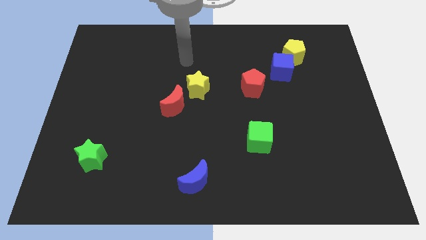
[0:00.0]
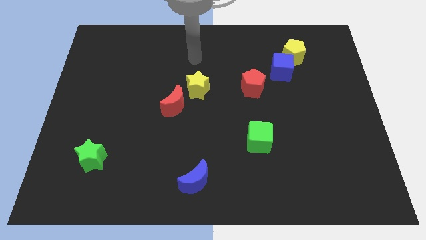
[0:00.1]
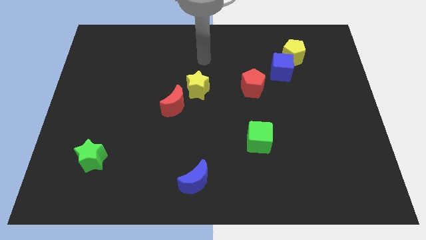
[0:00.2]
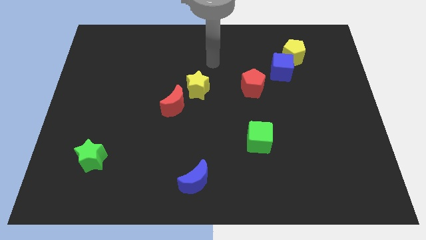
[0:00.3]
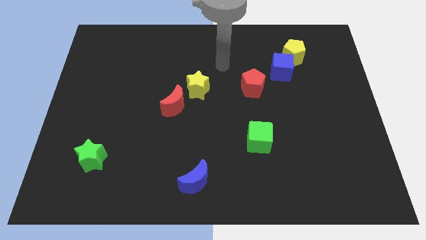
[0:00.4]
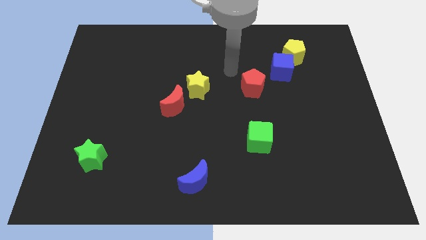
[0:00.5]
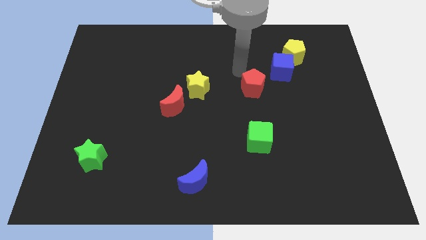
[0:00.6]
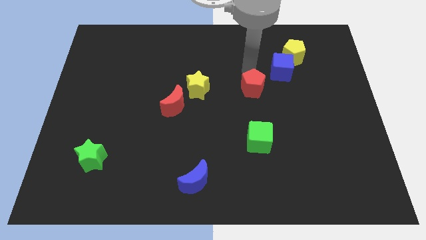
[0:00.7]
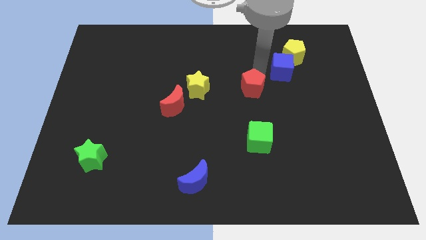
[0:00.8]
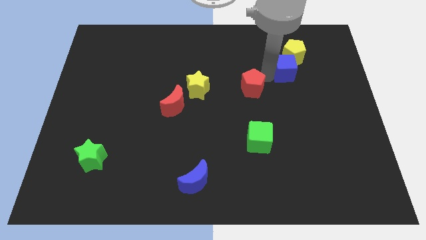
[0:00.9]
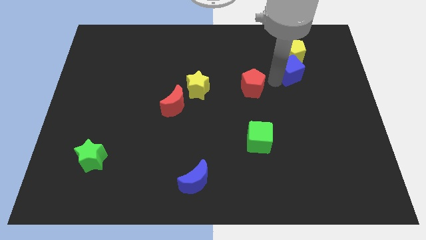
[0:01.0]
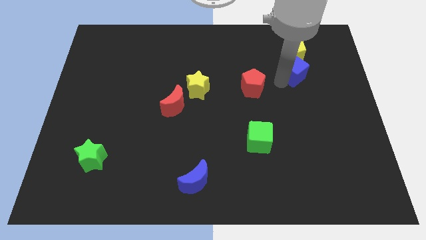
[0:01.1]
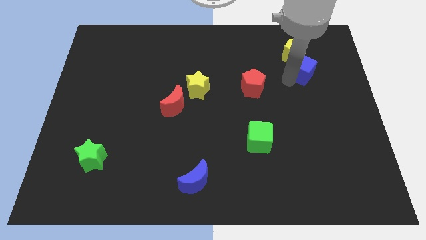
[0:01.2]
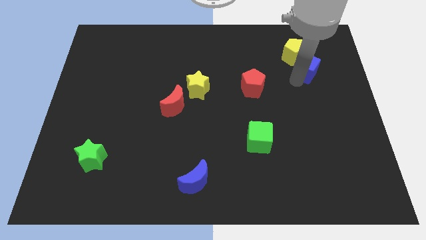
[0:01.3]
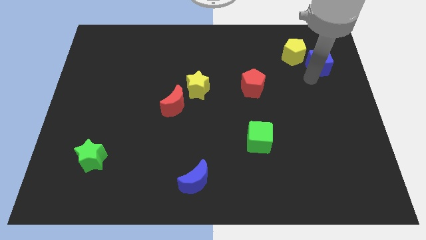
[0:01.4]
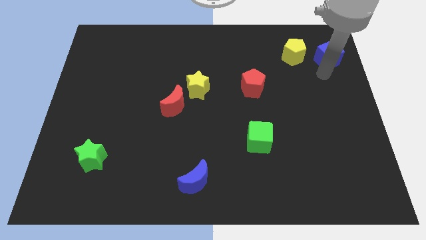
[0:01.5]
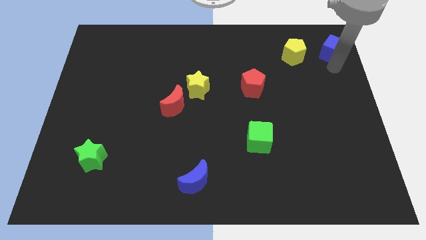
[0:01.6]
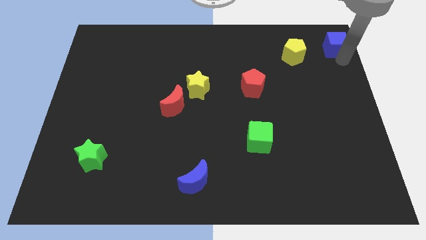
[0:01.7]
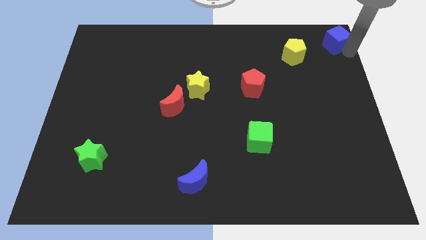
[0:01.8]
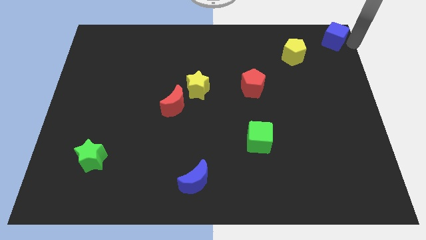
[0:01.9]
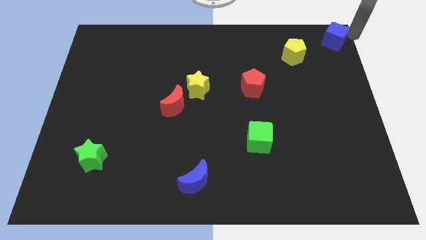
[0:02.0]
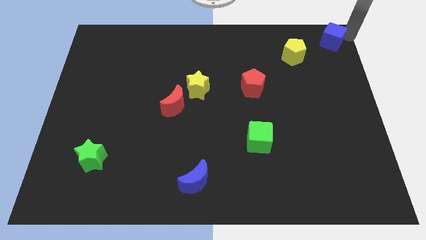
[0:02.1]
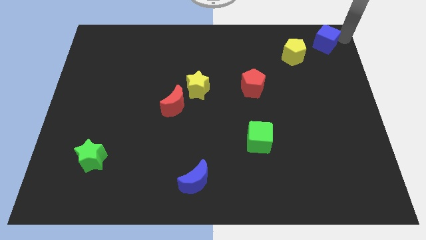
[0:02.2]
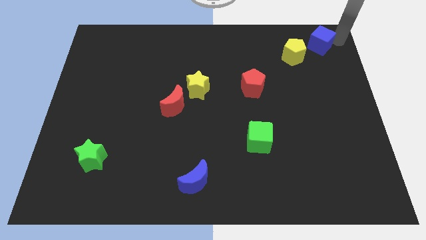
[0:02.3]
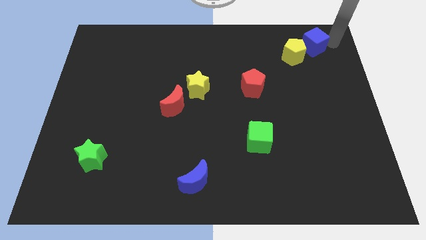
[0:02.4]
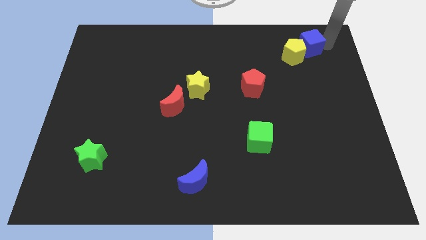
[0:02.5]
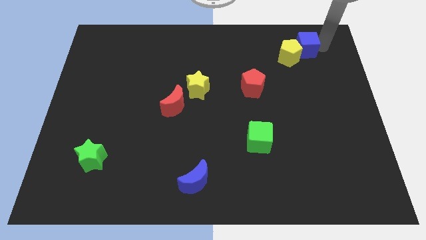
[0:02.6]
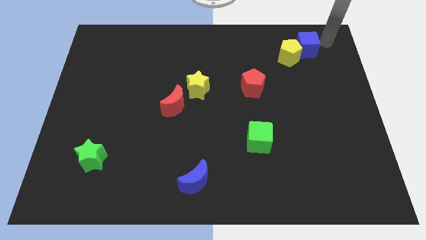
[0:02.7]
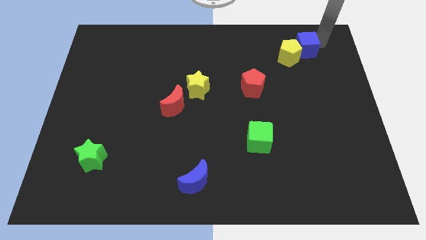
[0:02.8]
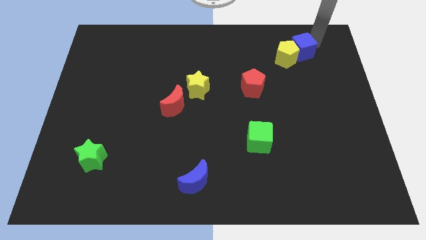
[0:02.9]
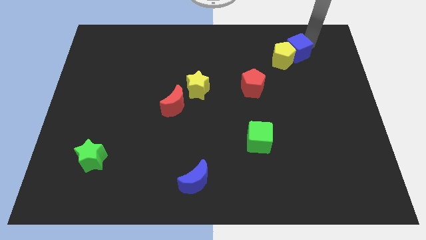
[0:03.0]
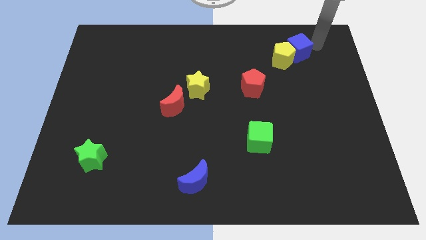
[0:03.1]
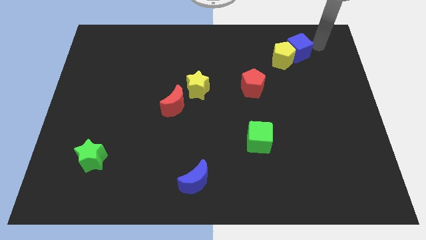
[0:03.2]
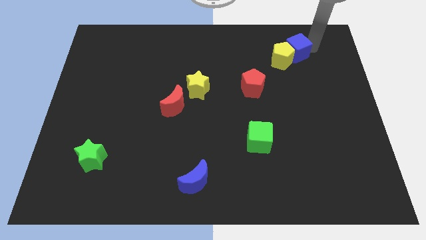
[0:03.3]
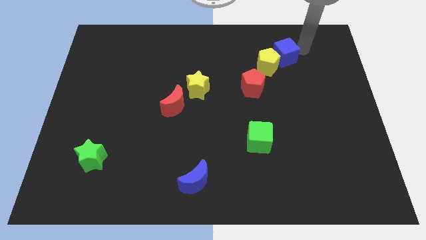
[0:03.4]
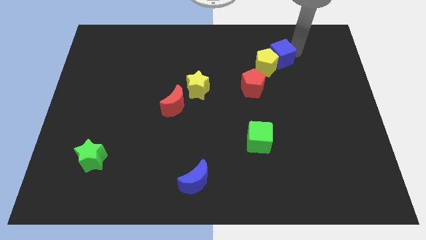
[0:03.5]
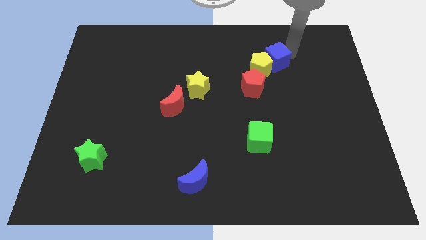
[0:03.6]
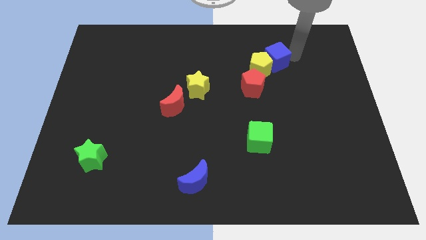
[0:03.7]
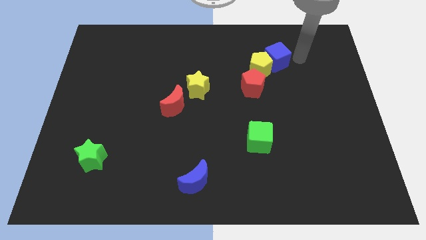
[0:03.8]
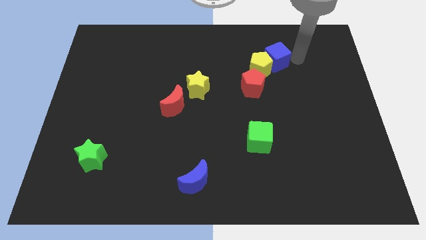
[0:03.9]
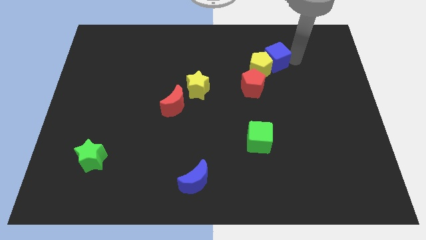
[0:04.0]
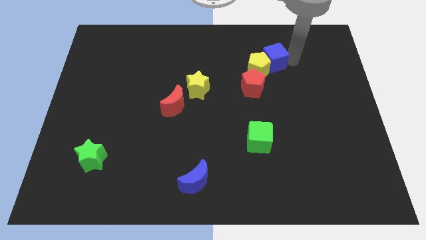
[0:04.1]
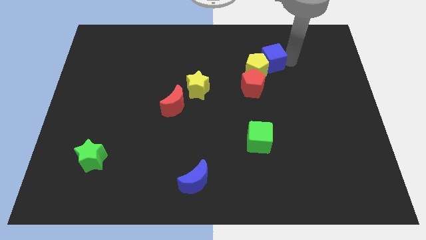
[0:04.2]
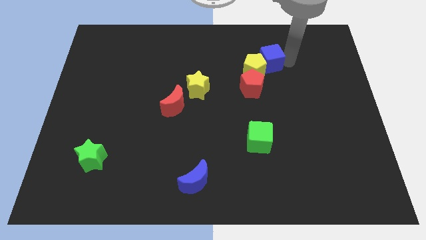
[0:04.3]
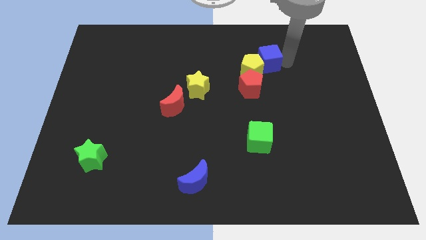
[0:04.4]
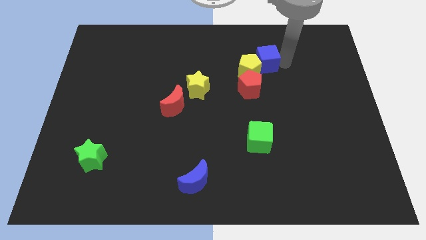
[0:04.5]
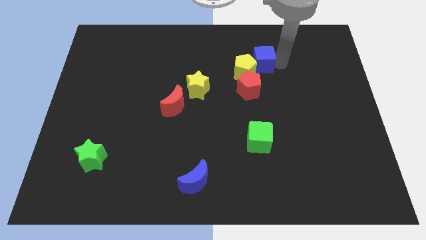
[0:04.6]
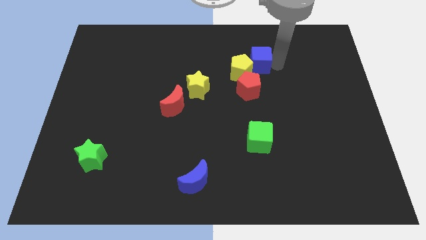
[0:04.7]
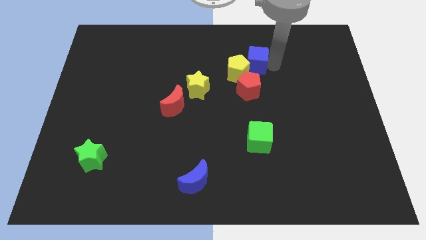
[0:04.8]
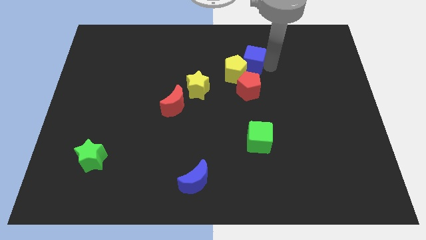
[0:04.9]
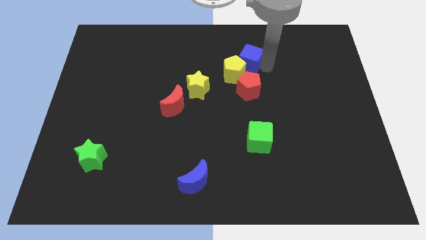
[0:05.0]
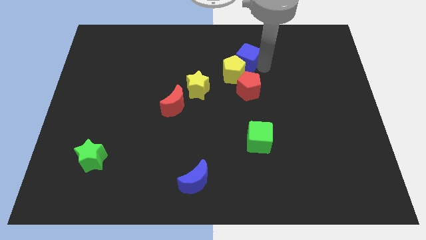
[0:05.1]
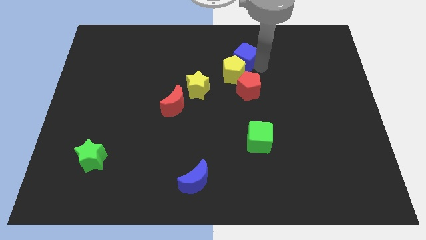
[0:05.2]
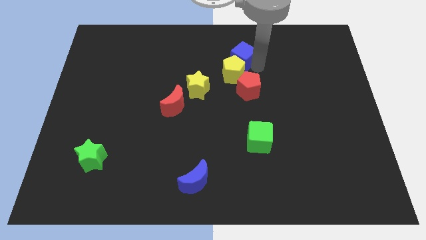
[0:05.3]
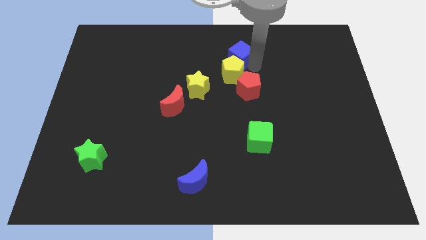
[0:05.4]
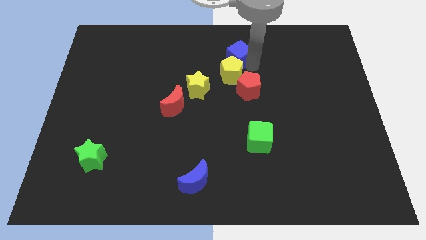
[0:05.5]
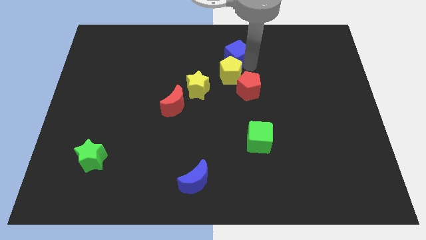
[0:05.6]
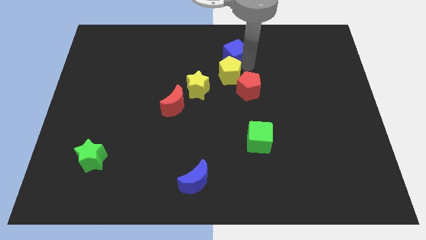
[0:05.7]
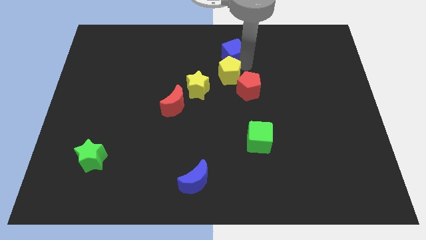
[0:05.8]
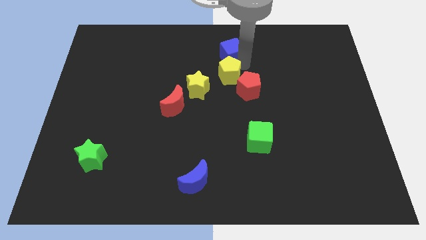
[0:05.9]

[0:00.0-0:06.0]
slide the blue cube to the towards your base
